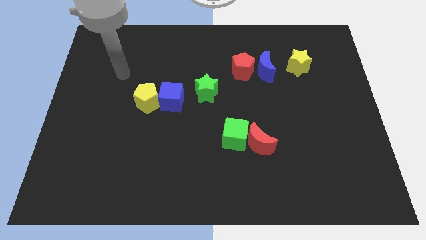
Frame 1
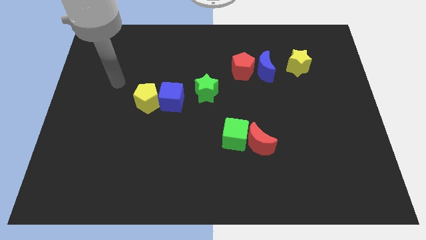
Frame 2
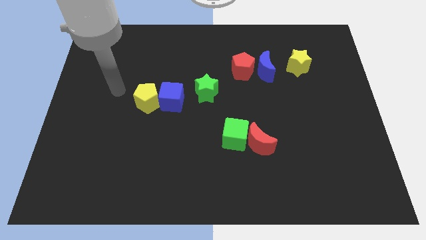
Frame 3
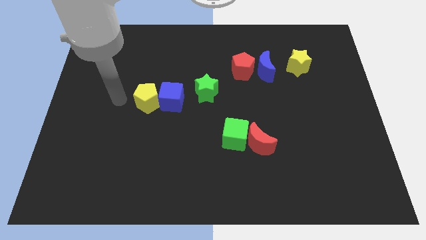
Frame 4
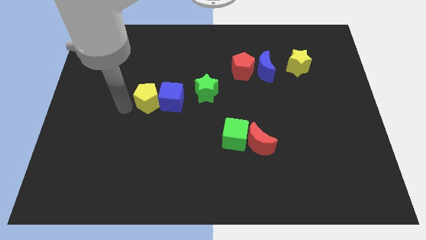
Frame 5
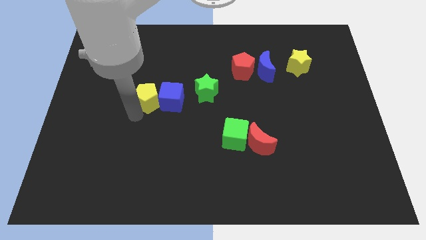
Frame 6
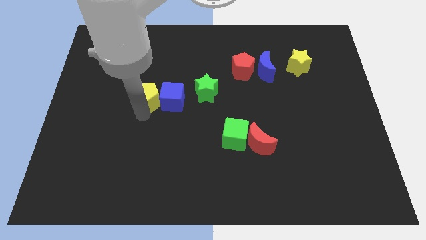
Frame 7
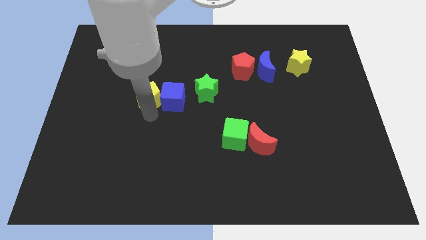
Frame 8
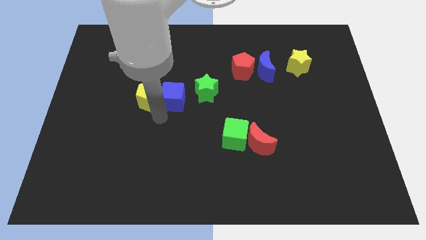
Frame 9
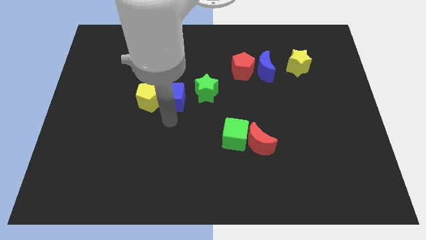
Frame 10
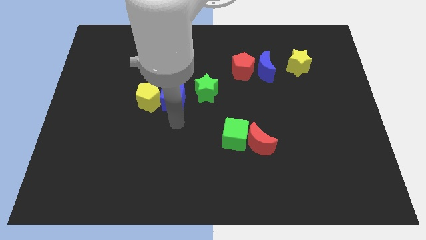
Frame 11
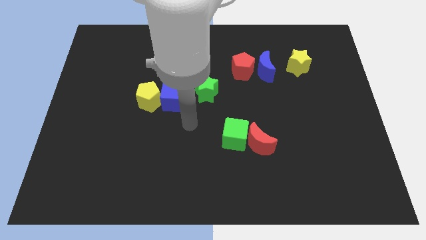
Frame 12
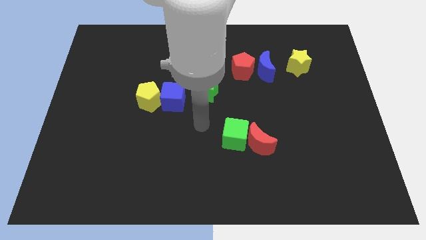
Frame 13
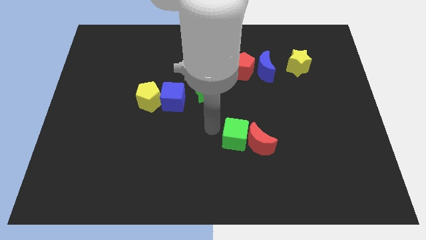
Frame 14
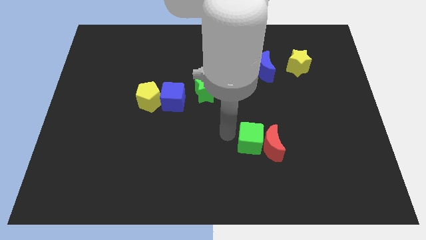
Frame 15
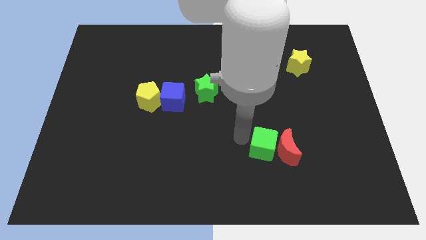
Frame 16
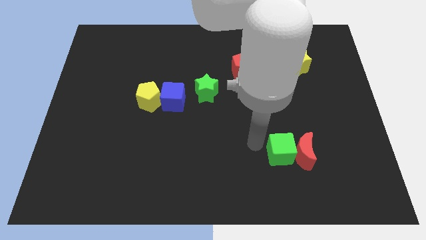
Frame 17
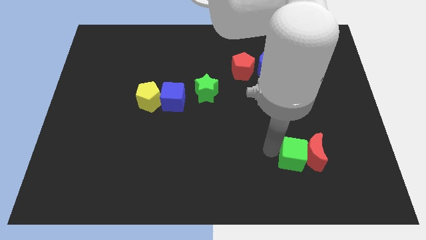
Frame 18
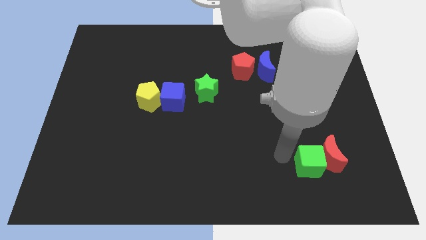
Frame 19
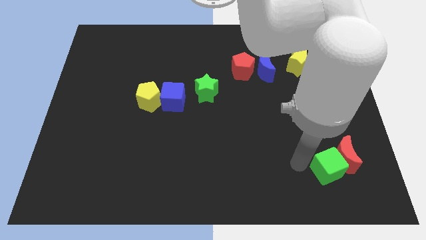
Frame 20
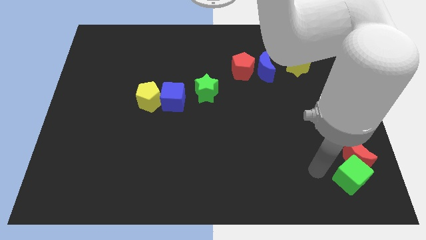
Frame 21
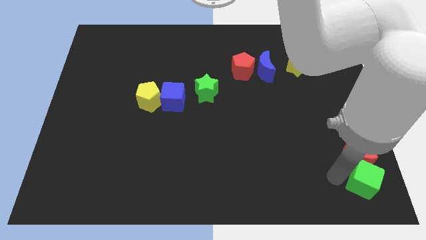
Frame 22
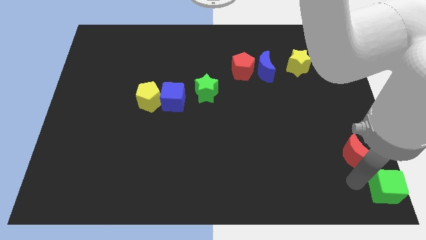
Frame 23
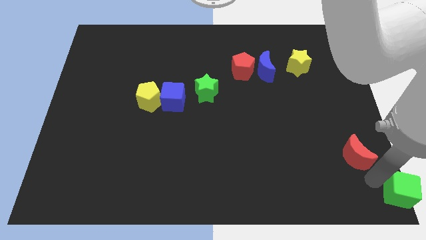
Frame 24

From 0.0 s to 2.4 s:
pull the red moon apart from the green cube

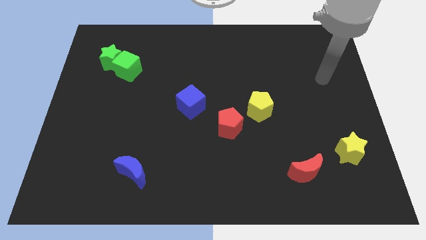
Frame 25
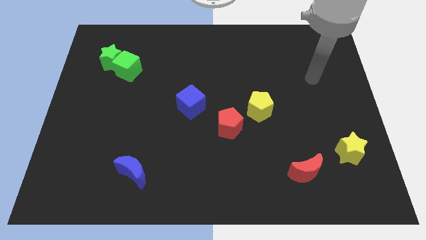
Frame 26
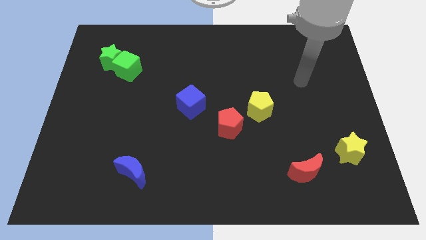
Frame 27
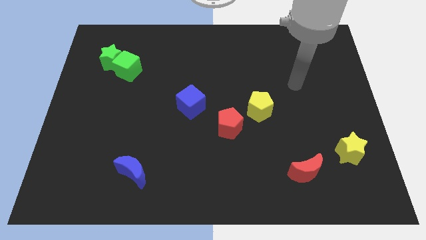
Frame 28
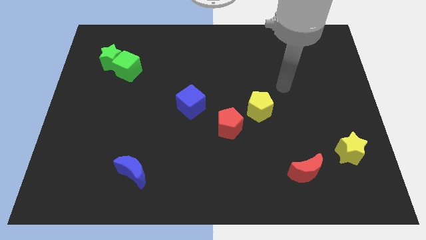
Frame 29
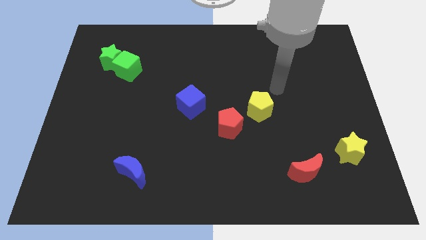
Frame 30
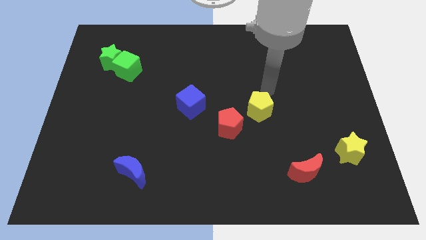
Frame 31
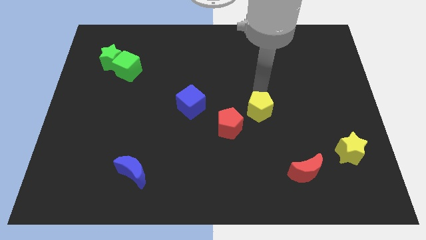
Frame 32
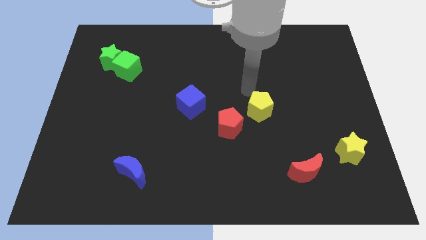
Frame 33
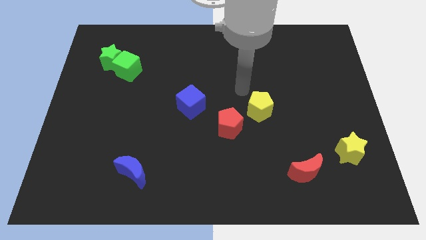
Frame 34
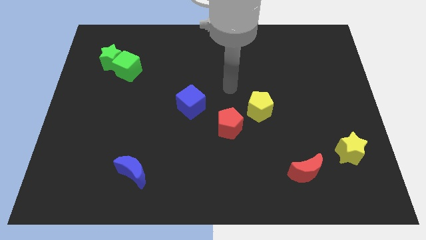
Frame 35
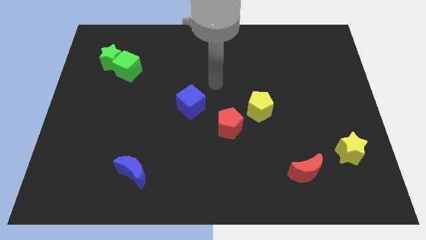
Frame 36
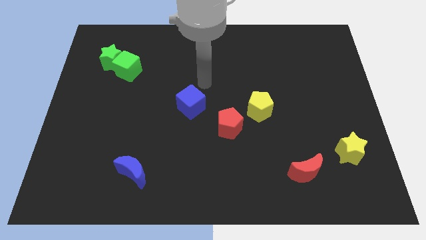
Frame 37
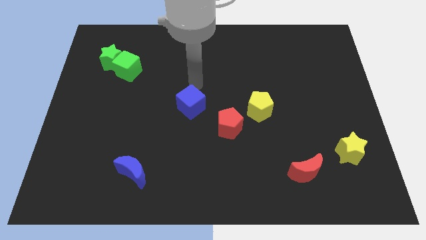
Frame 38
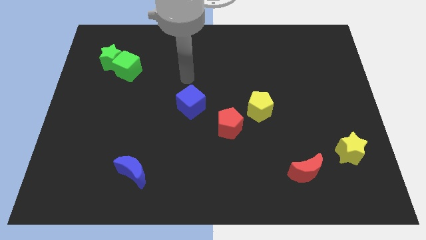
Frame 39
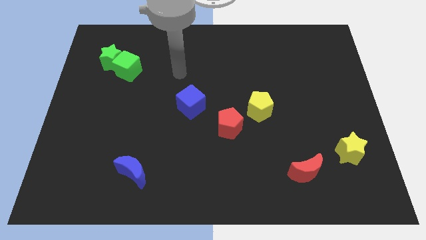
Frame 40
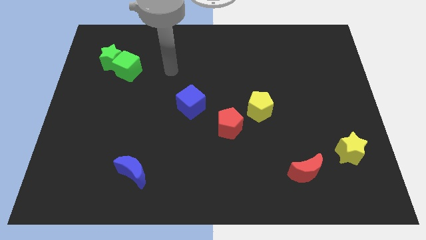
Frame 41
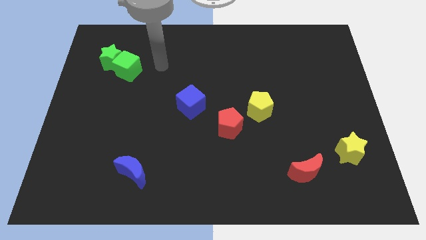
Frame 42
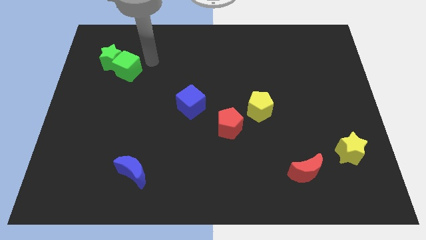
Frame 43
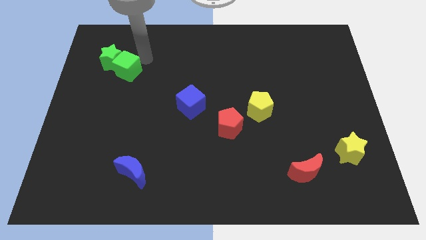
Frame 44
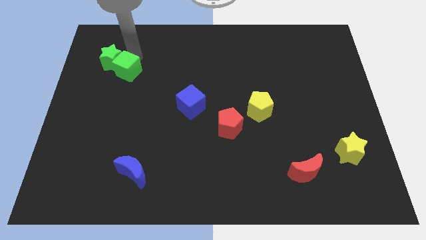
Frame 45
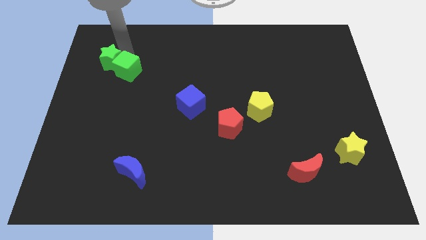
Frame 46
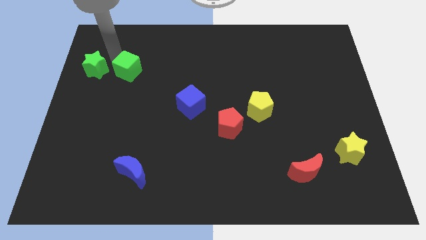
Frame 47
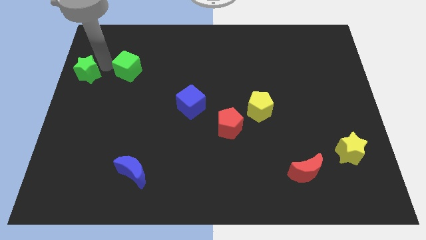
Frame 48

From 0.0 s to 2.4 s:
move the green cube away from the green star

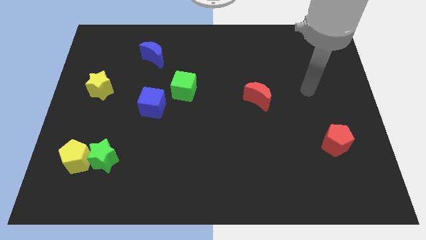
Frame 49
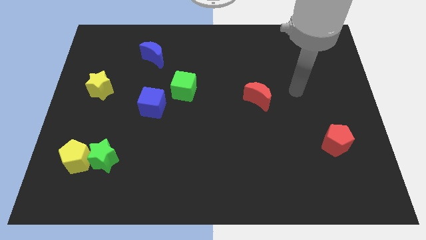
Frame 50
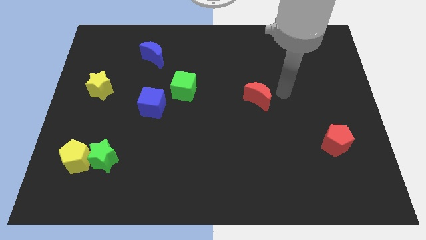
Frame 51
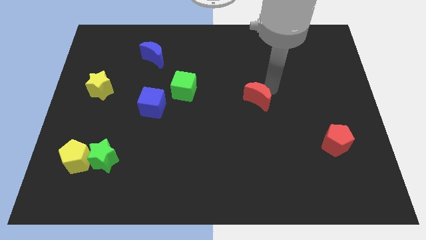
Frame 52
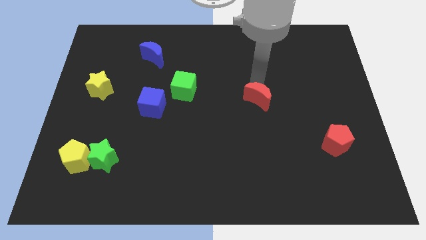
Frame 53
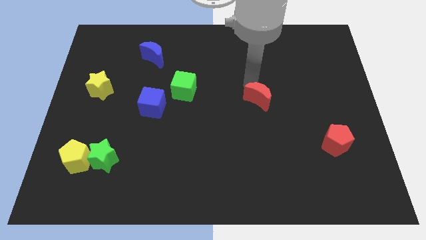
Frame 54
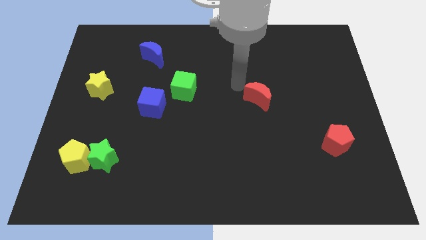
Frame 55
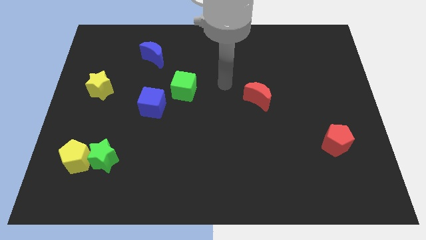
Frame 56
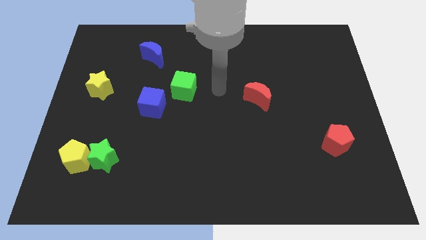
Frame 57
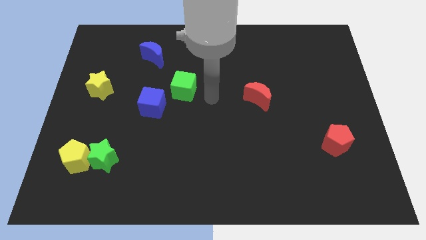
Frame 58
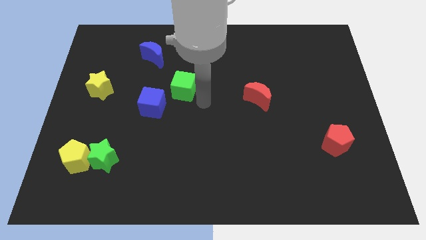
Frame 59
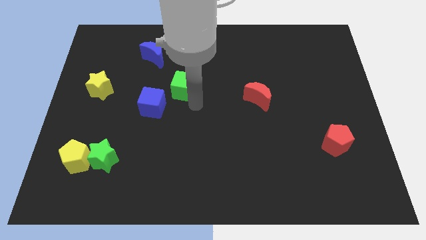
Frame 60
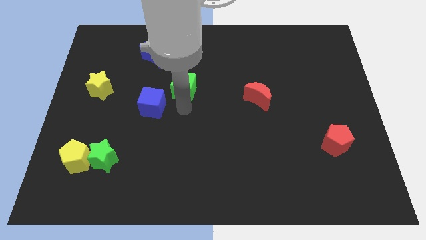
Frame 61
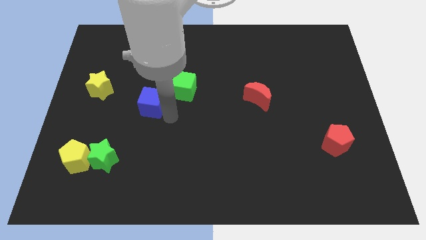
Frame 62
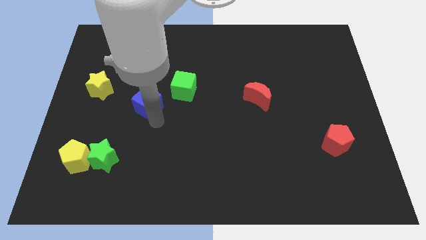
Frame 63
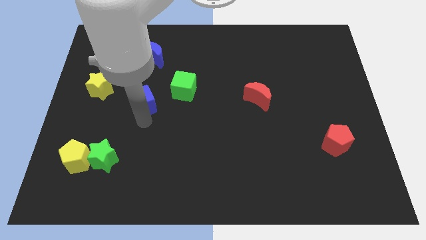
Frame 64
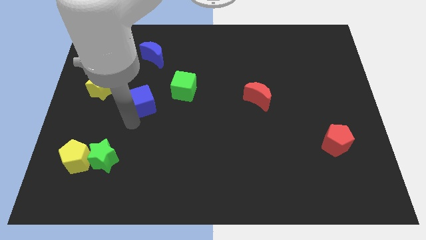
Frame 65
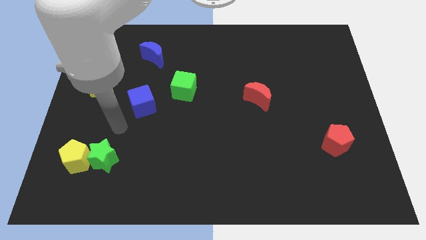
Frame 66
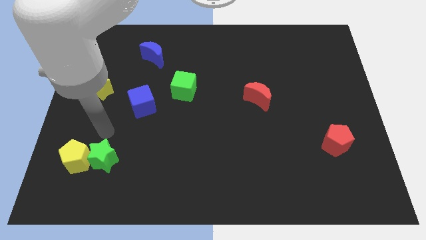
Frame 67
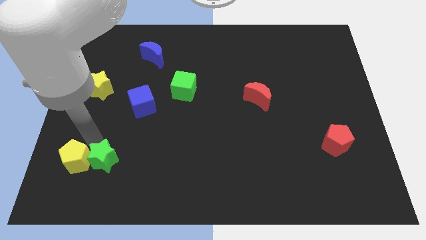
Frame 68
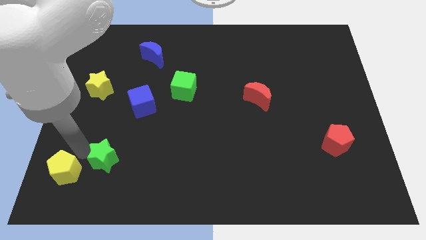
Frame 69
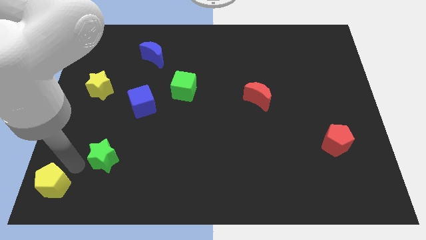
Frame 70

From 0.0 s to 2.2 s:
pull the green star apart from the yellow pentagon

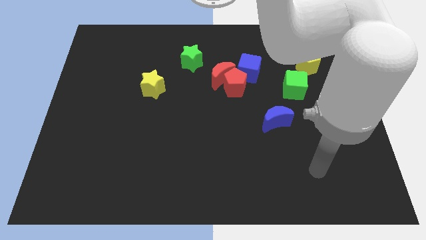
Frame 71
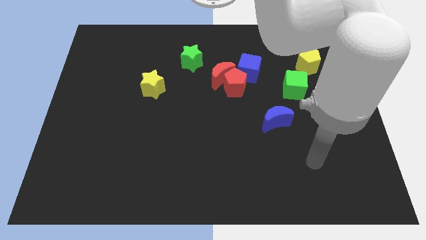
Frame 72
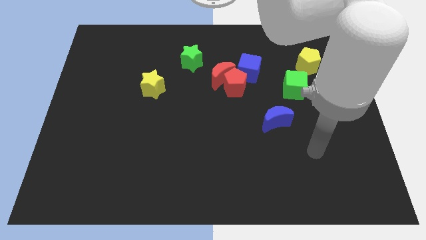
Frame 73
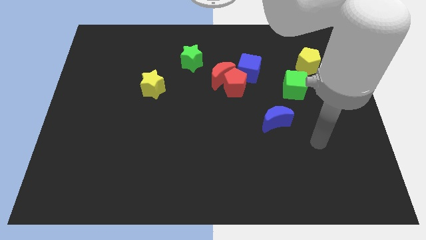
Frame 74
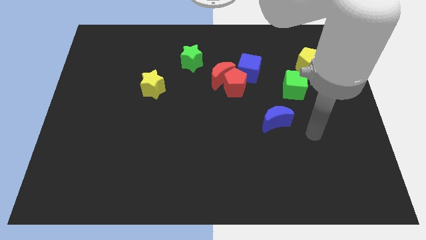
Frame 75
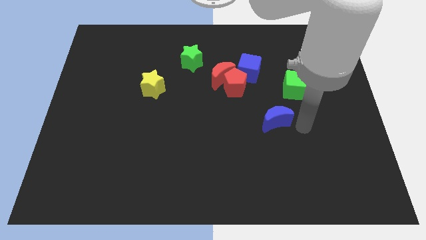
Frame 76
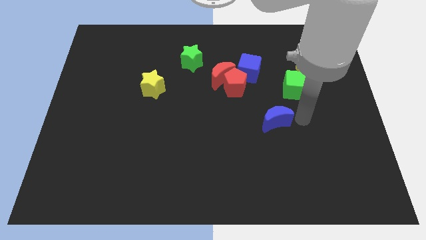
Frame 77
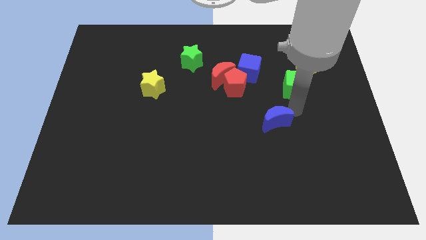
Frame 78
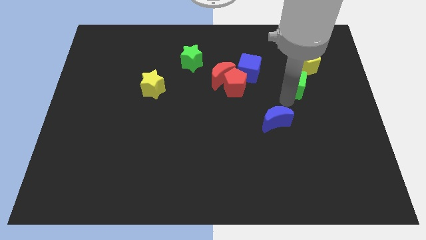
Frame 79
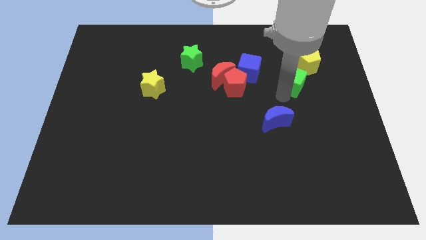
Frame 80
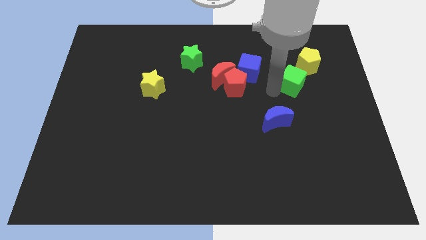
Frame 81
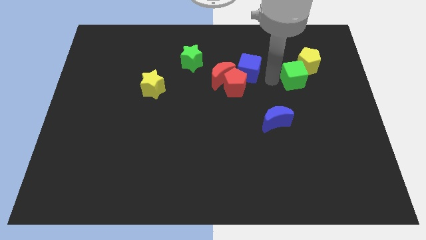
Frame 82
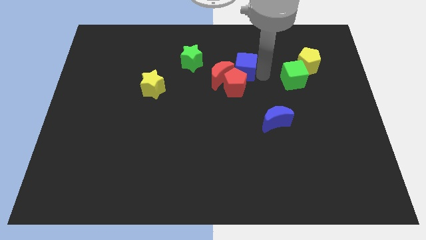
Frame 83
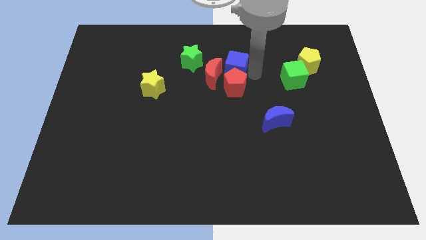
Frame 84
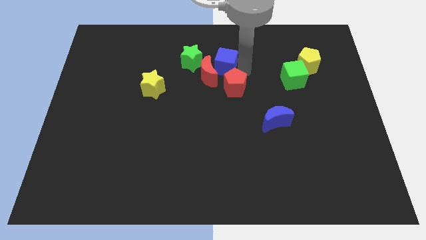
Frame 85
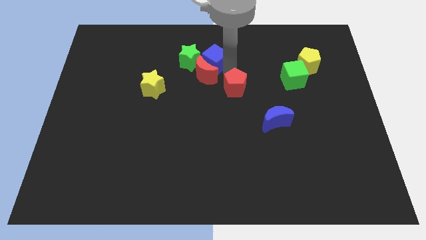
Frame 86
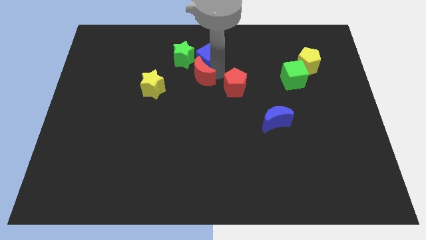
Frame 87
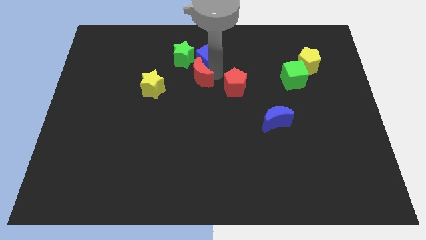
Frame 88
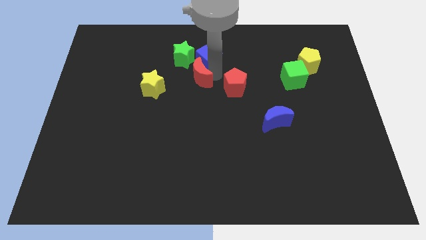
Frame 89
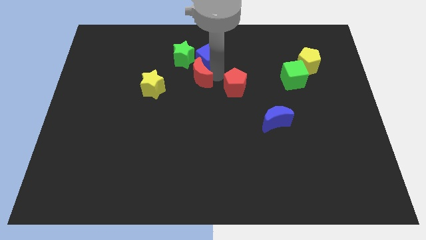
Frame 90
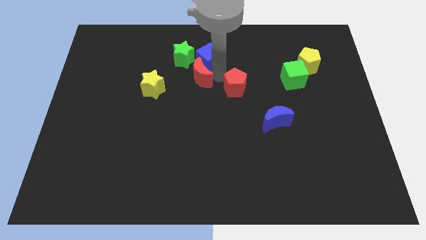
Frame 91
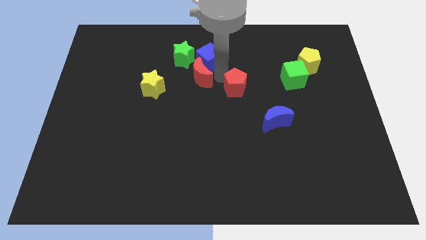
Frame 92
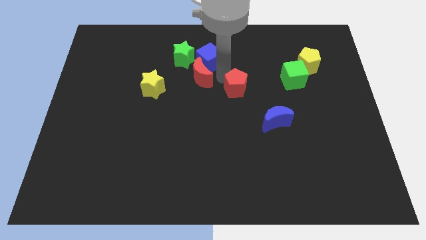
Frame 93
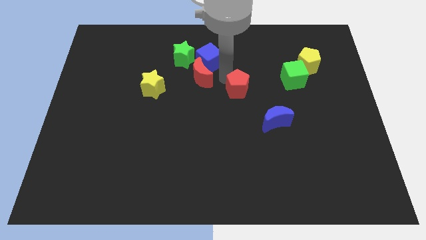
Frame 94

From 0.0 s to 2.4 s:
move the red pentagon away from the red moon and blue cube

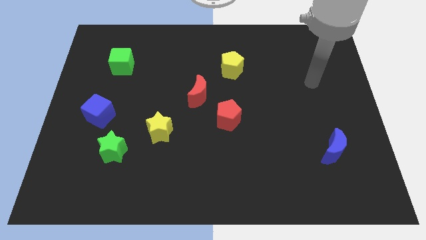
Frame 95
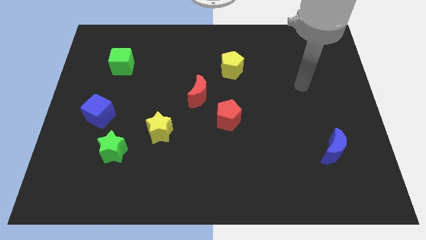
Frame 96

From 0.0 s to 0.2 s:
pull the red moon apart from the red pentagon
